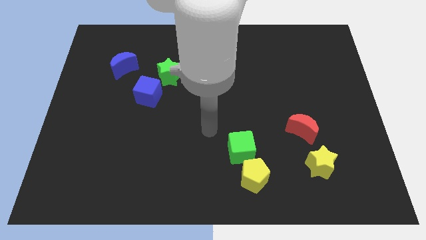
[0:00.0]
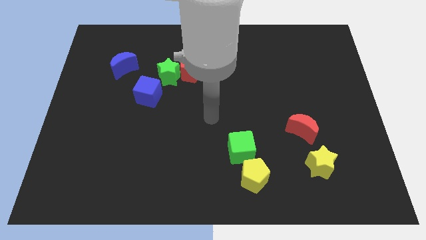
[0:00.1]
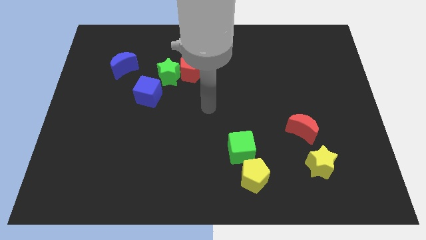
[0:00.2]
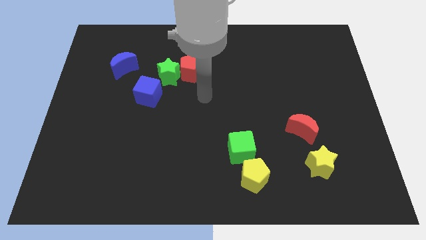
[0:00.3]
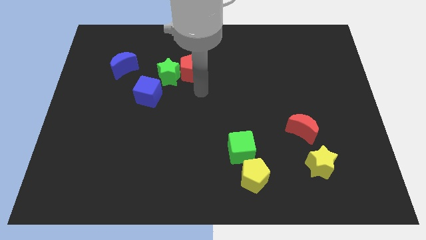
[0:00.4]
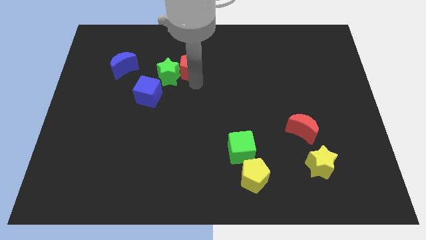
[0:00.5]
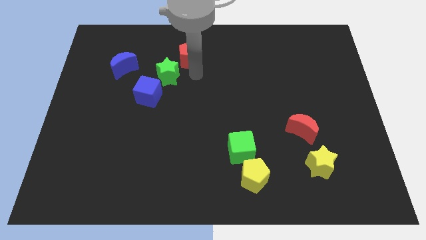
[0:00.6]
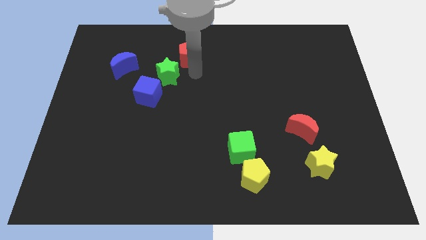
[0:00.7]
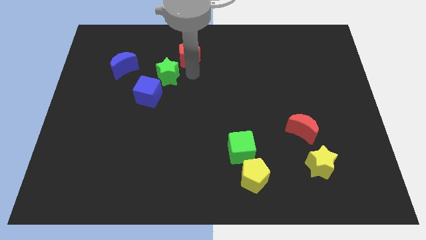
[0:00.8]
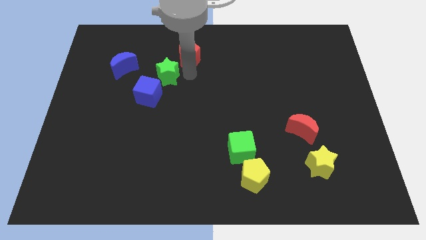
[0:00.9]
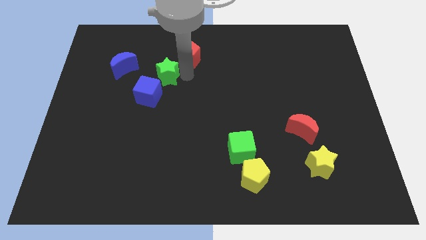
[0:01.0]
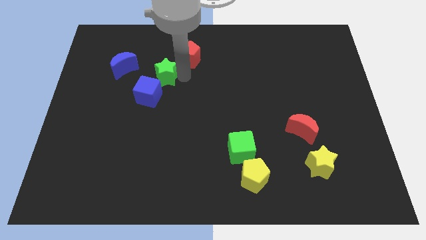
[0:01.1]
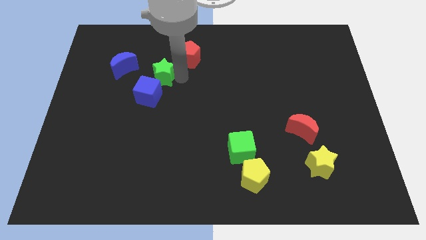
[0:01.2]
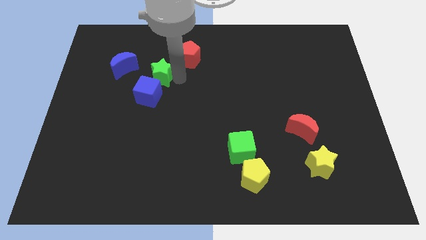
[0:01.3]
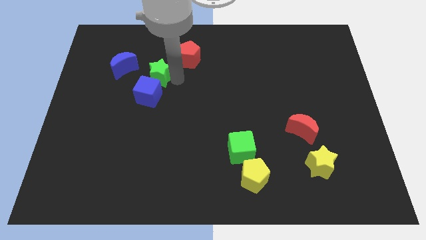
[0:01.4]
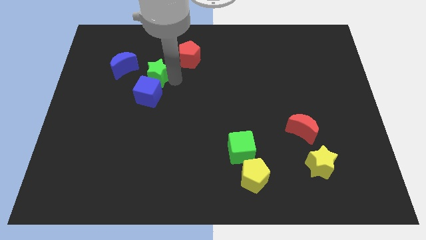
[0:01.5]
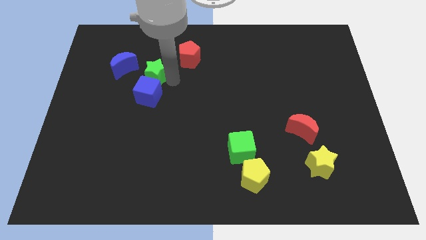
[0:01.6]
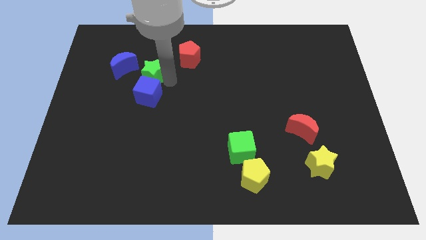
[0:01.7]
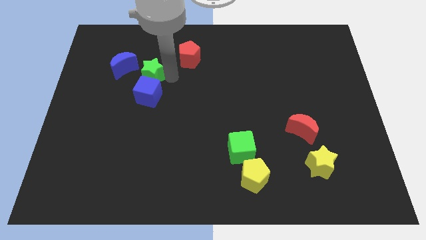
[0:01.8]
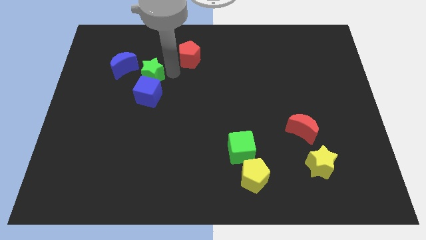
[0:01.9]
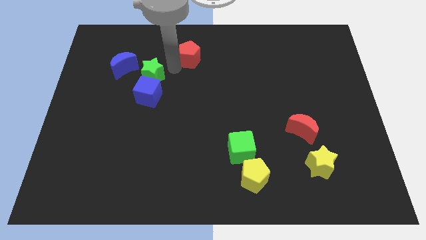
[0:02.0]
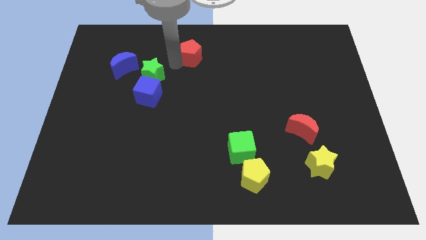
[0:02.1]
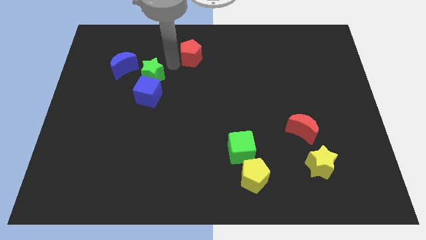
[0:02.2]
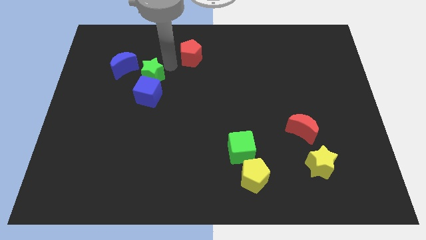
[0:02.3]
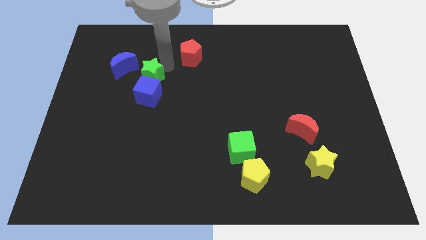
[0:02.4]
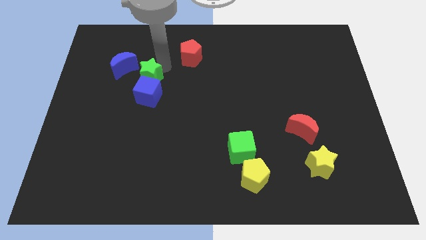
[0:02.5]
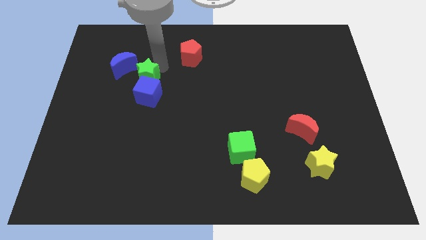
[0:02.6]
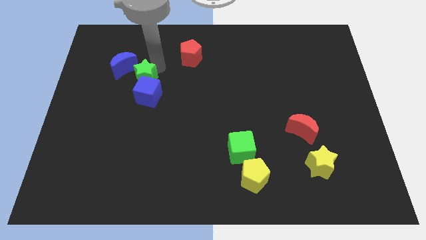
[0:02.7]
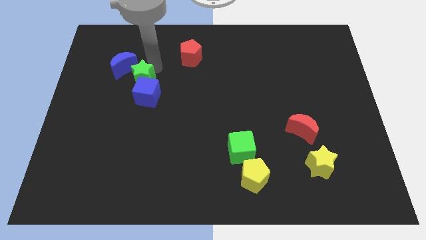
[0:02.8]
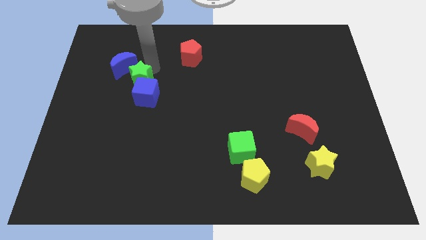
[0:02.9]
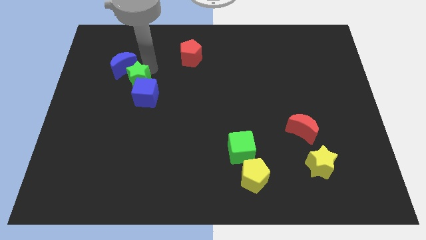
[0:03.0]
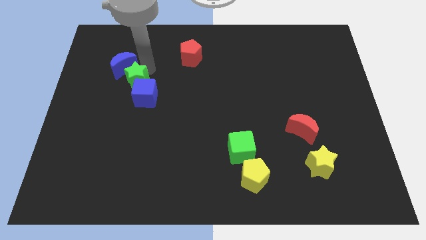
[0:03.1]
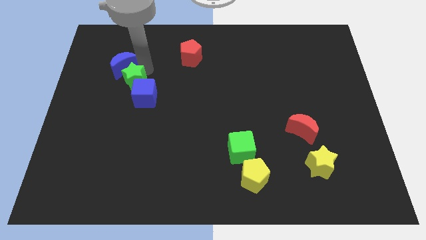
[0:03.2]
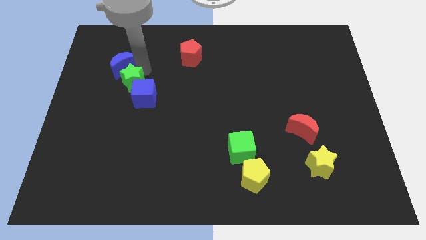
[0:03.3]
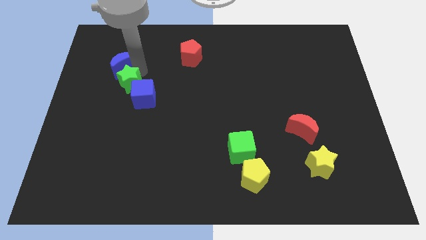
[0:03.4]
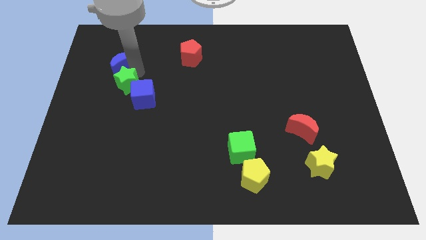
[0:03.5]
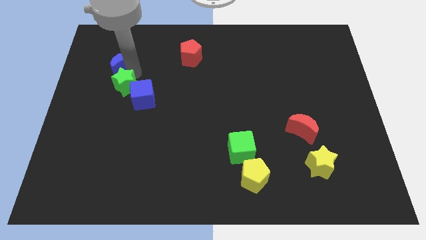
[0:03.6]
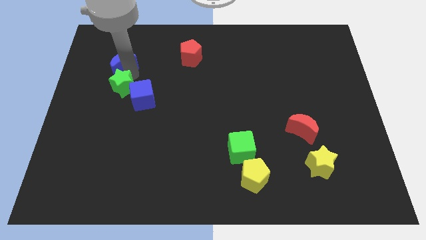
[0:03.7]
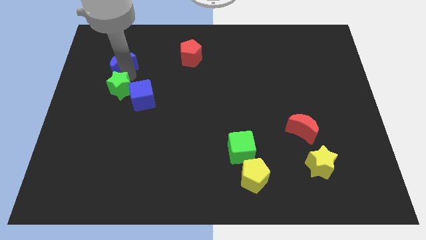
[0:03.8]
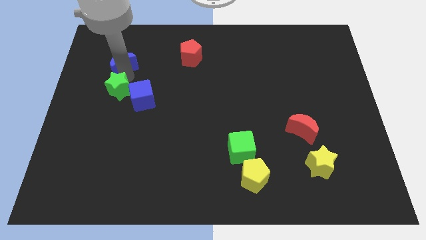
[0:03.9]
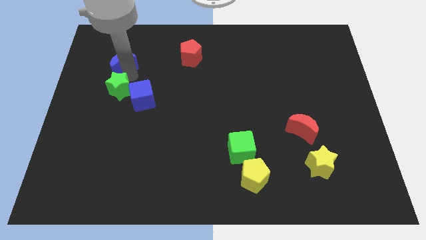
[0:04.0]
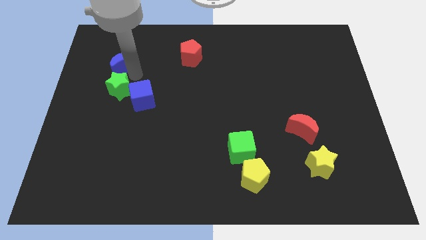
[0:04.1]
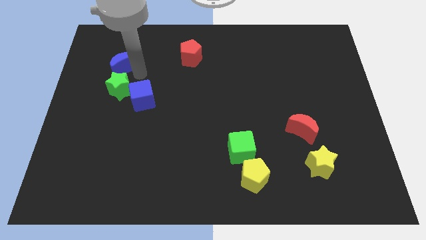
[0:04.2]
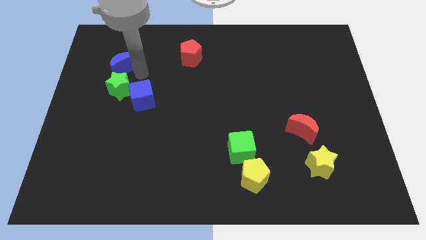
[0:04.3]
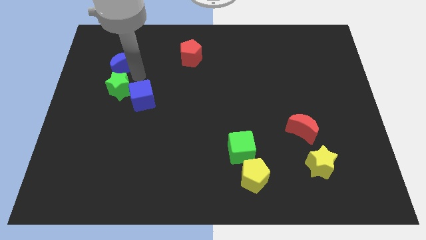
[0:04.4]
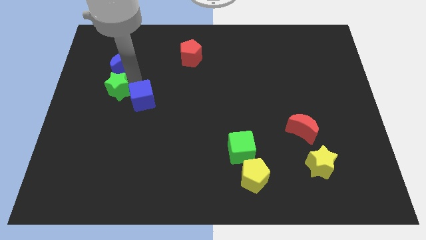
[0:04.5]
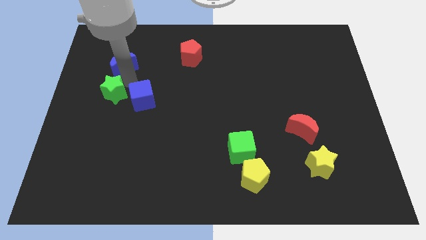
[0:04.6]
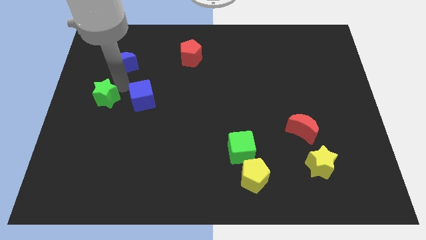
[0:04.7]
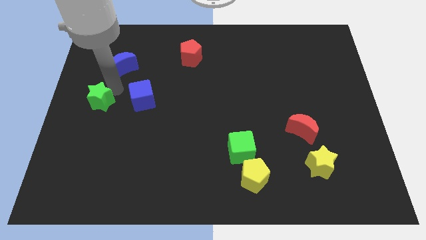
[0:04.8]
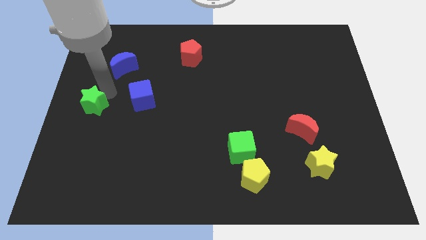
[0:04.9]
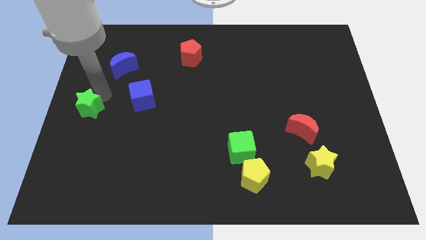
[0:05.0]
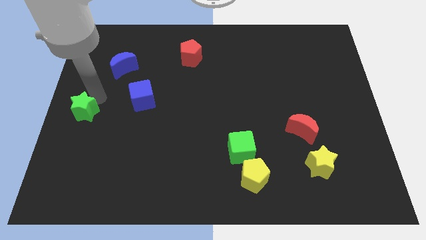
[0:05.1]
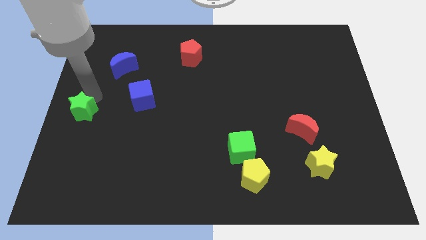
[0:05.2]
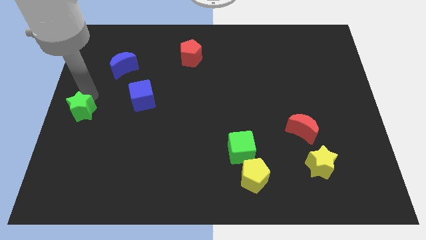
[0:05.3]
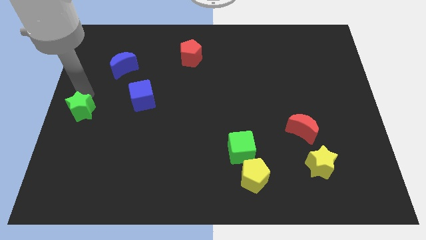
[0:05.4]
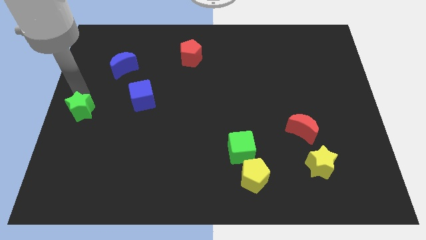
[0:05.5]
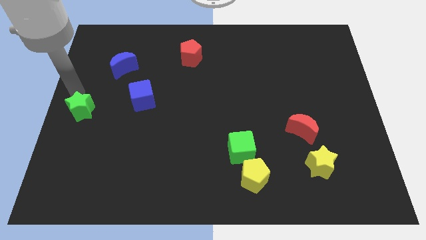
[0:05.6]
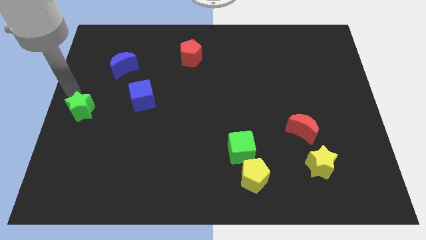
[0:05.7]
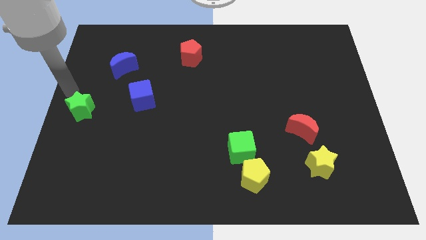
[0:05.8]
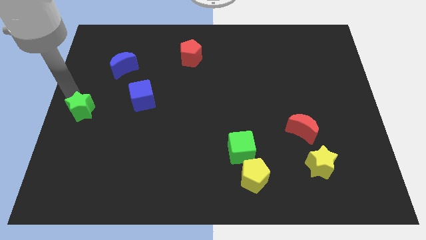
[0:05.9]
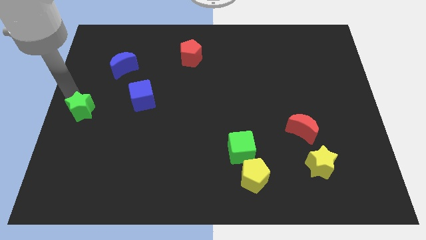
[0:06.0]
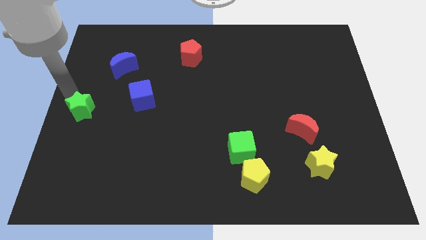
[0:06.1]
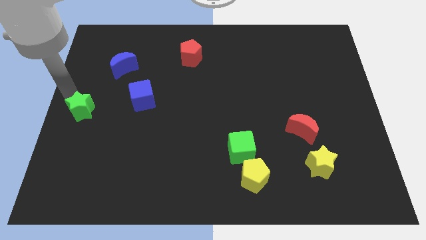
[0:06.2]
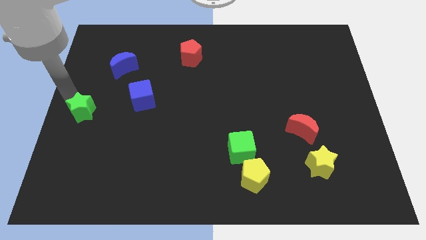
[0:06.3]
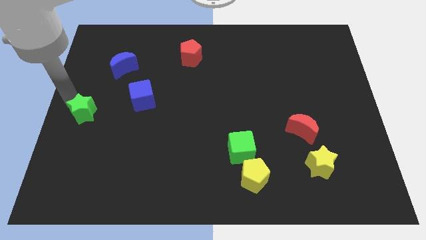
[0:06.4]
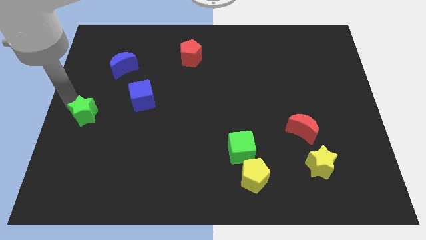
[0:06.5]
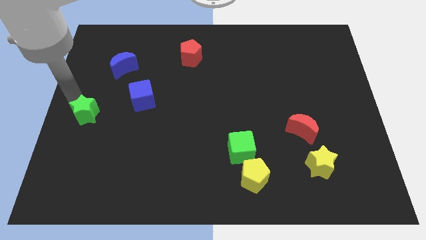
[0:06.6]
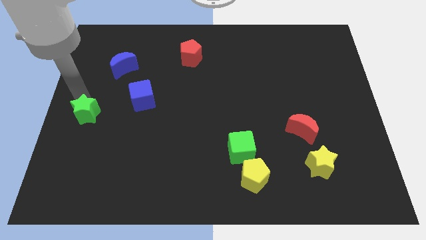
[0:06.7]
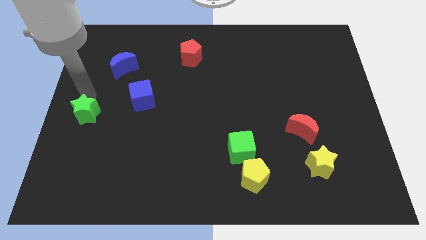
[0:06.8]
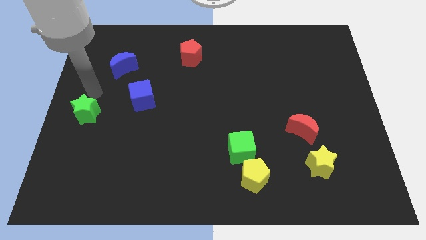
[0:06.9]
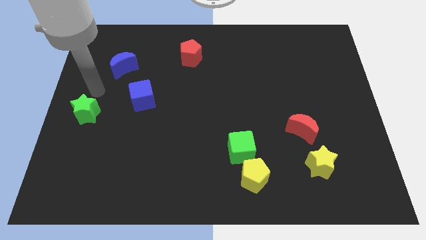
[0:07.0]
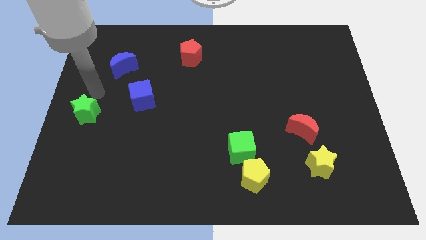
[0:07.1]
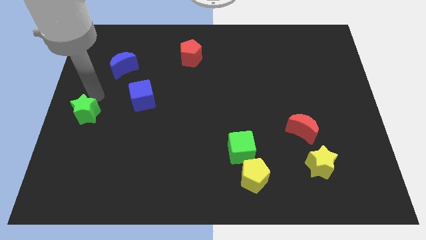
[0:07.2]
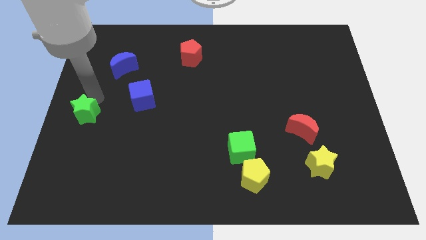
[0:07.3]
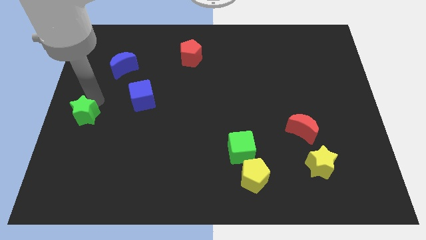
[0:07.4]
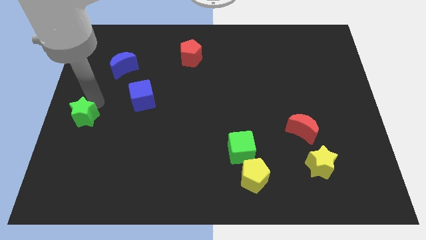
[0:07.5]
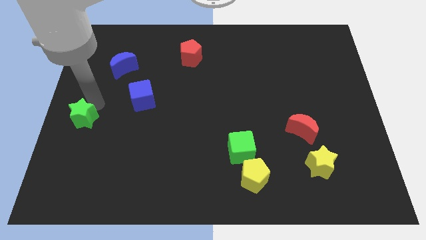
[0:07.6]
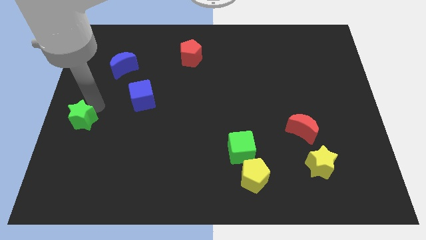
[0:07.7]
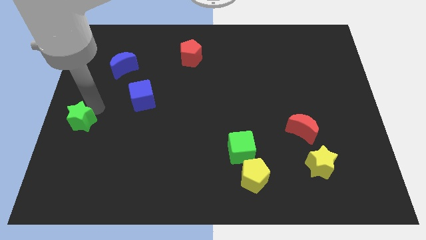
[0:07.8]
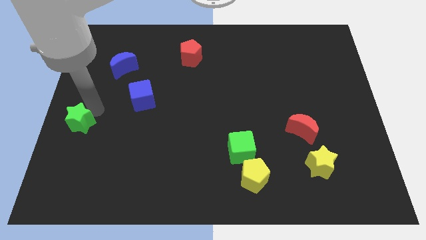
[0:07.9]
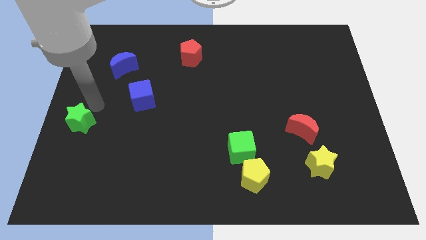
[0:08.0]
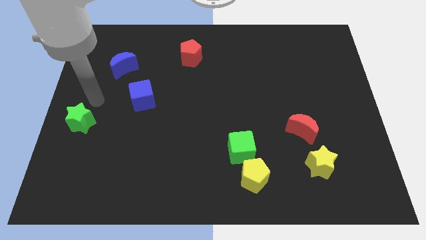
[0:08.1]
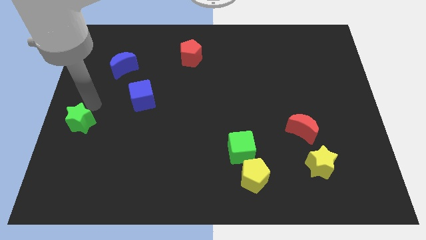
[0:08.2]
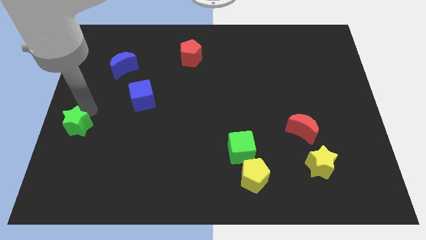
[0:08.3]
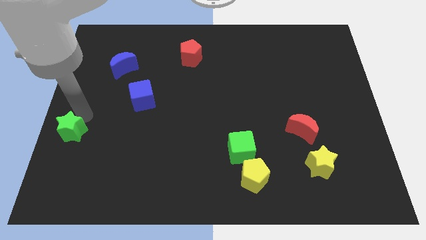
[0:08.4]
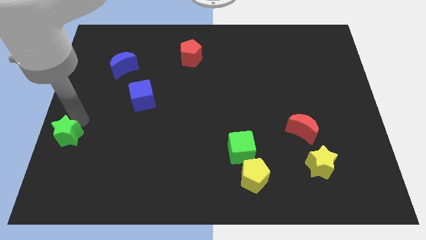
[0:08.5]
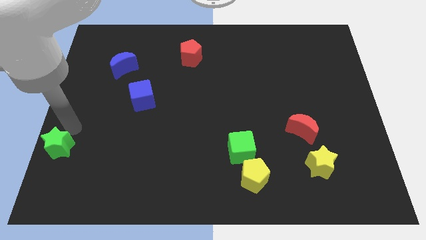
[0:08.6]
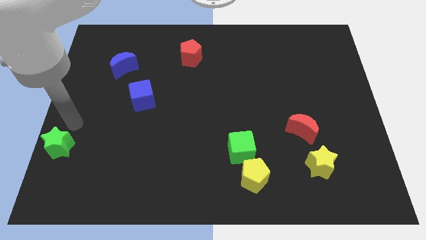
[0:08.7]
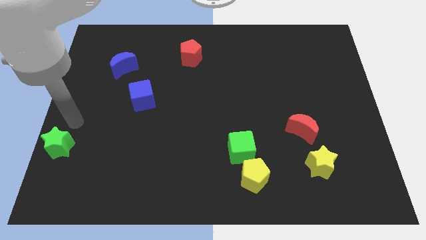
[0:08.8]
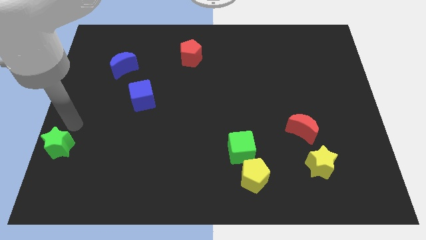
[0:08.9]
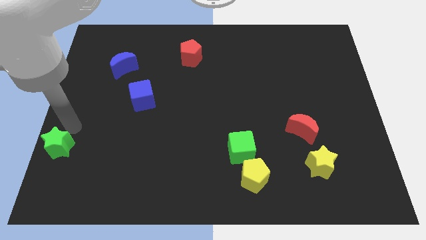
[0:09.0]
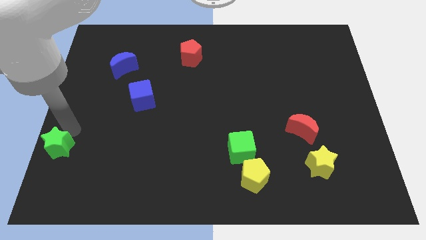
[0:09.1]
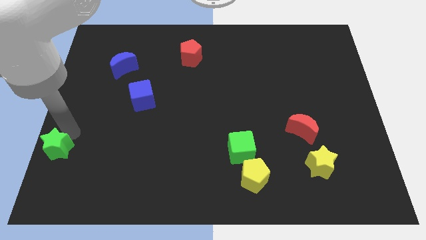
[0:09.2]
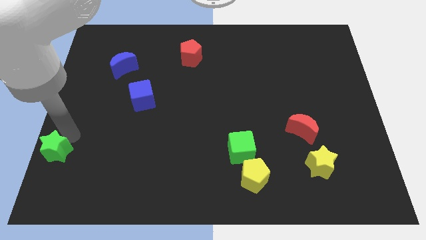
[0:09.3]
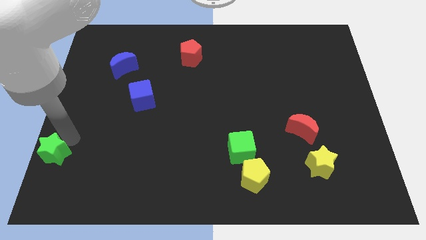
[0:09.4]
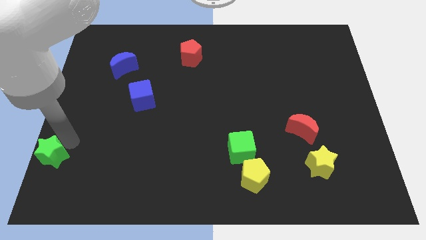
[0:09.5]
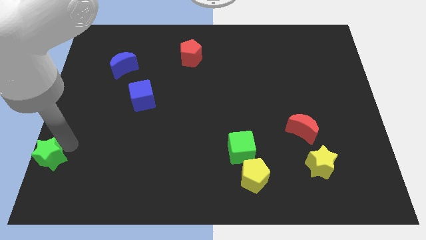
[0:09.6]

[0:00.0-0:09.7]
slide the green star to the bottom left of the board
